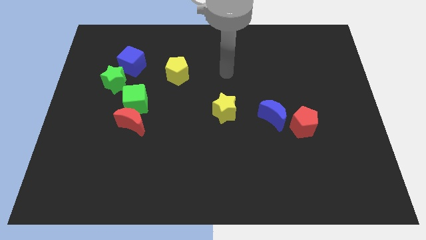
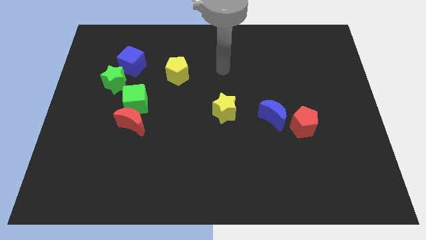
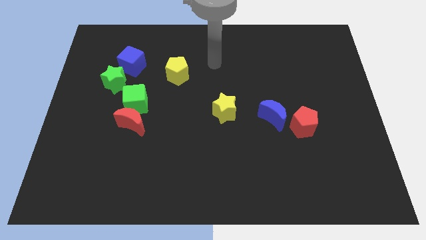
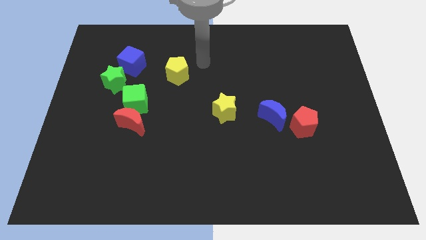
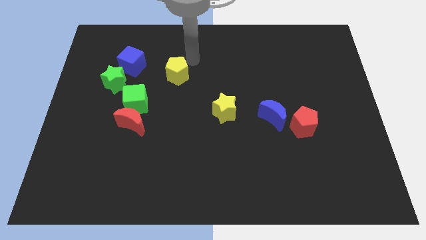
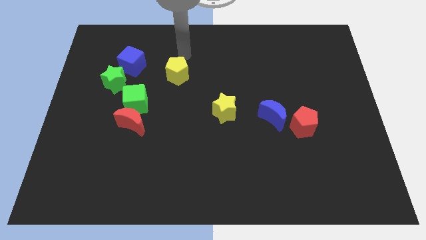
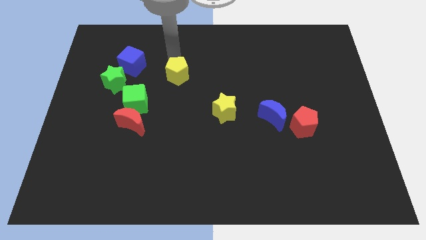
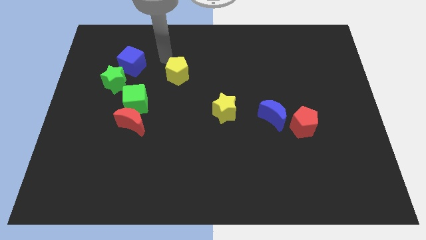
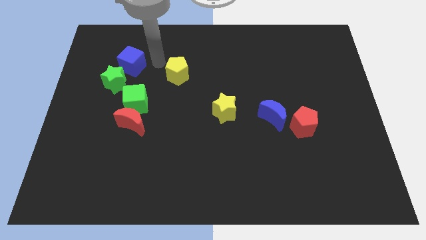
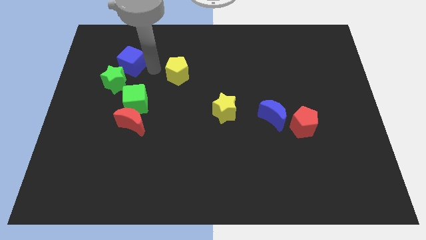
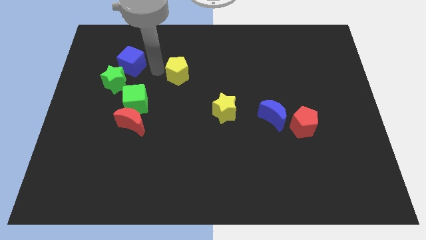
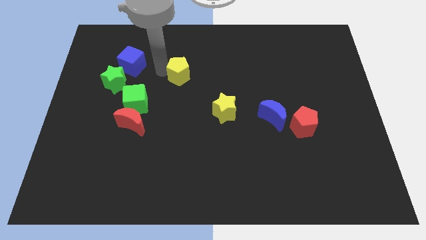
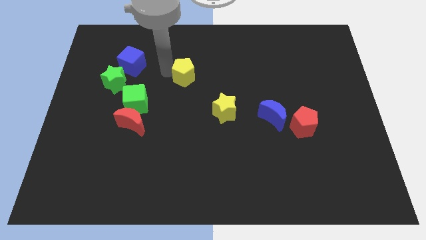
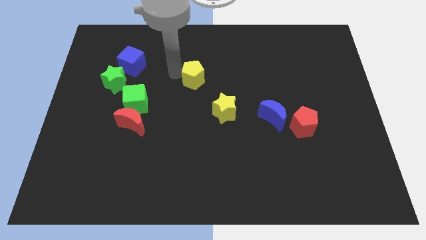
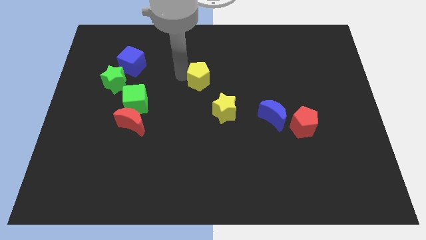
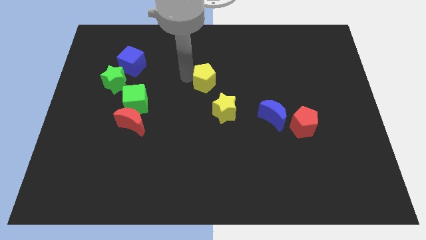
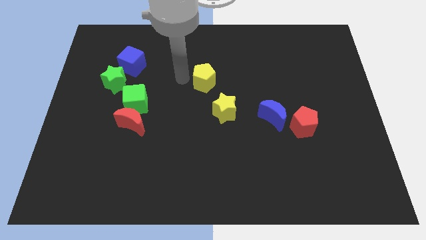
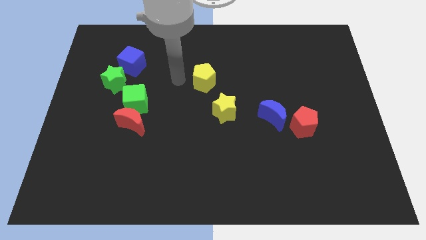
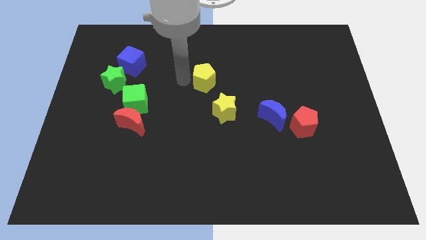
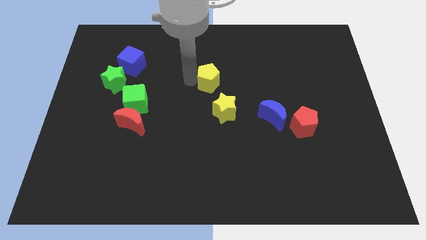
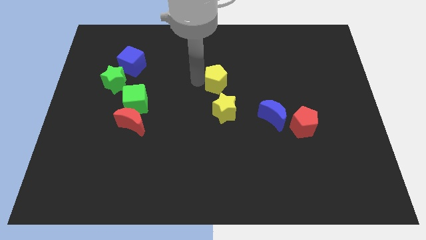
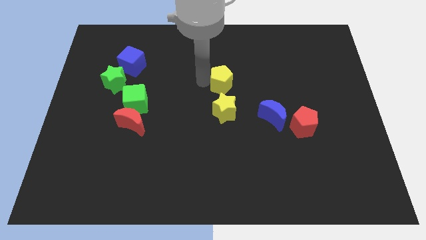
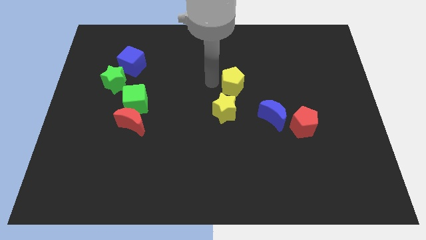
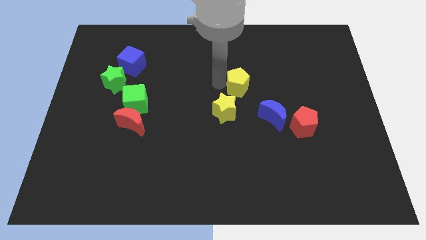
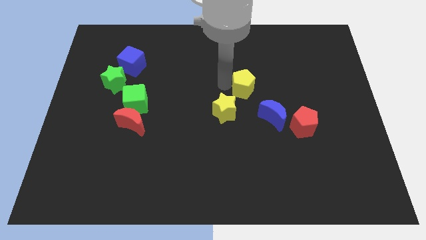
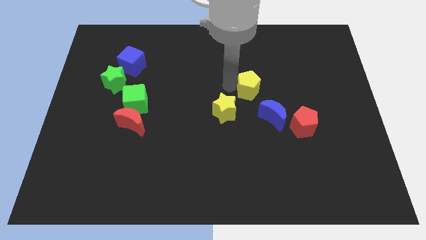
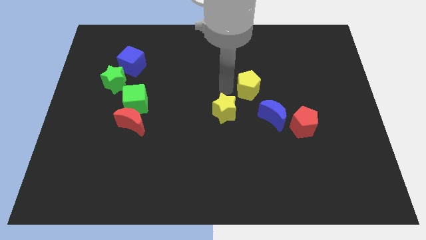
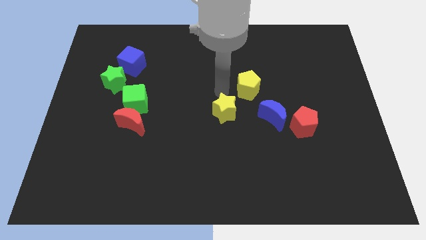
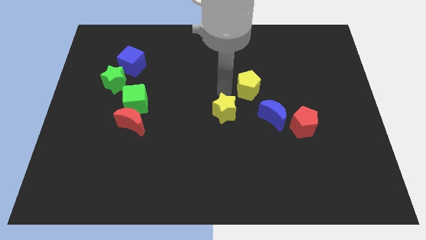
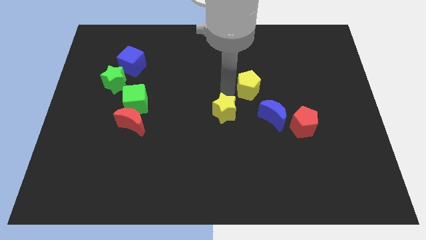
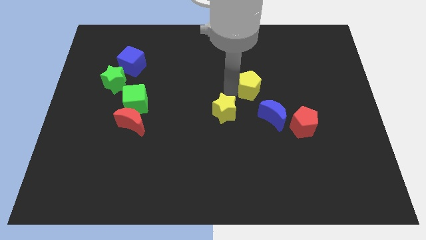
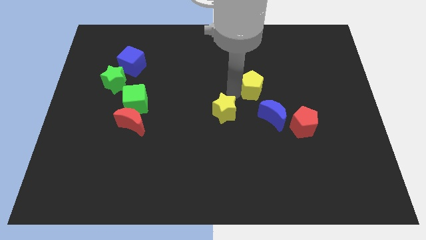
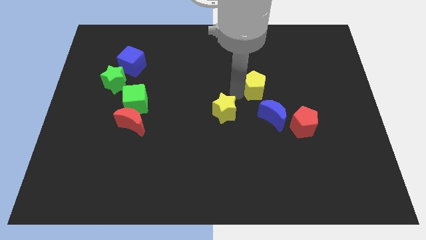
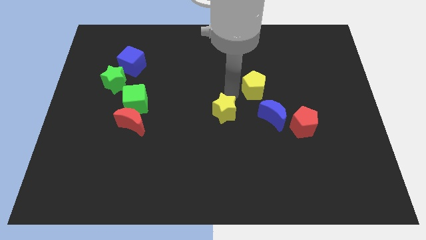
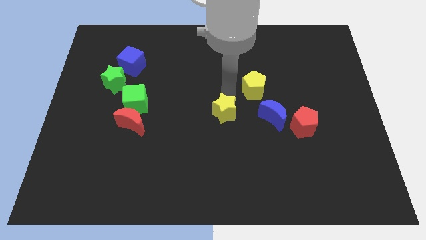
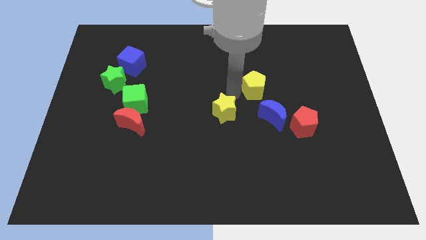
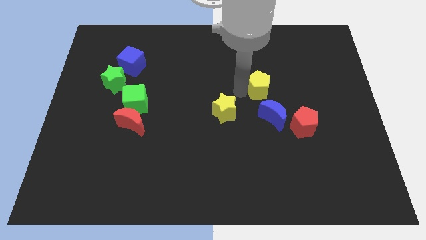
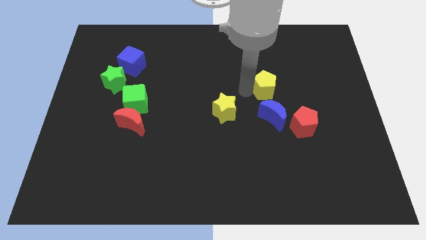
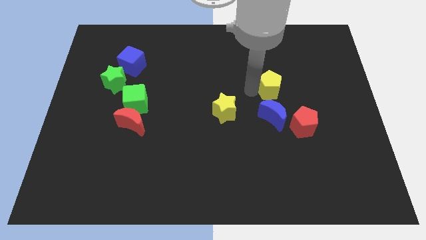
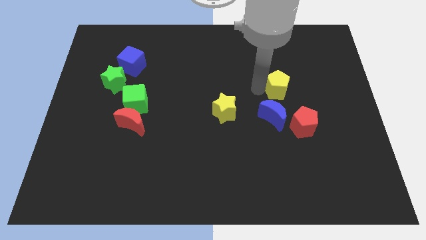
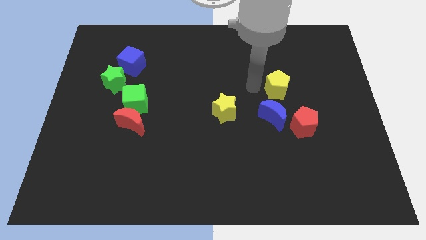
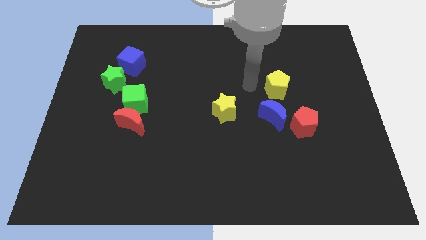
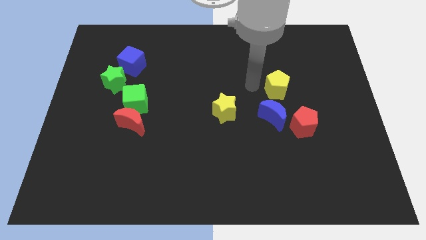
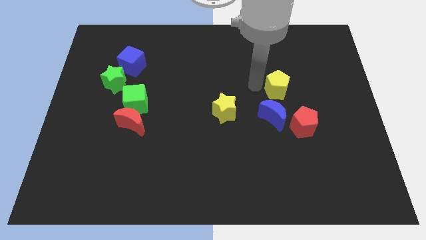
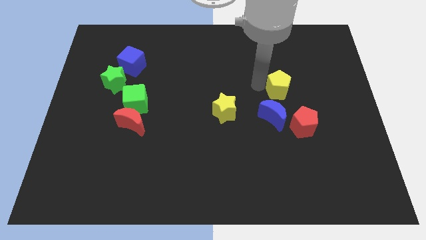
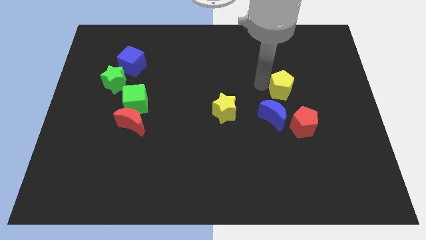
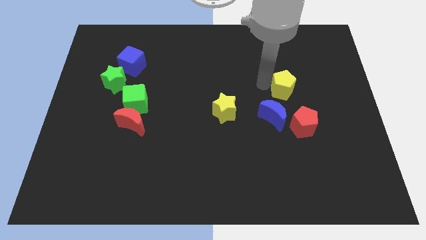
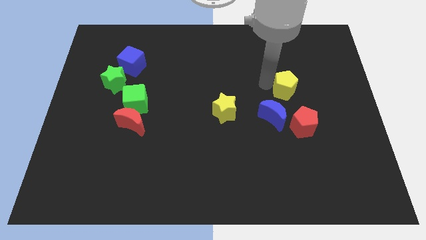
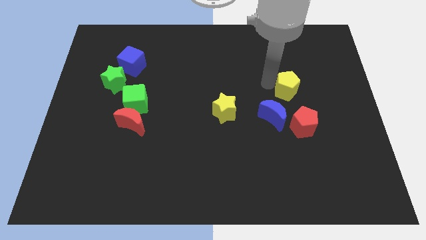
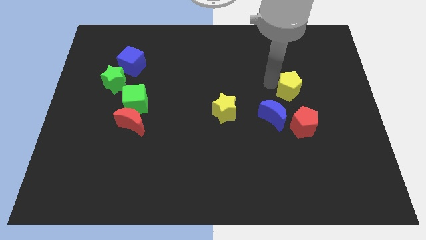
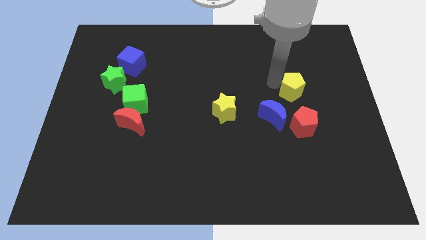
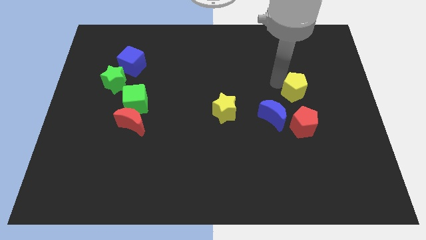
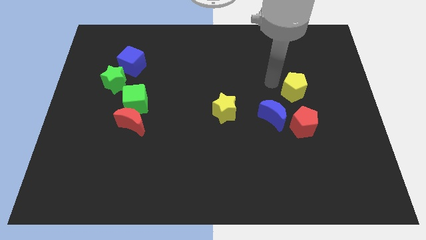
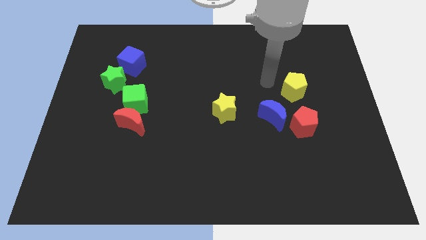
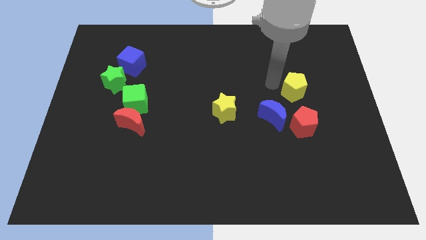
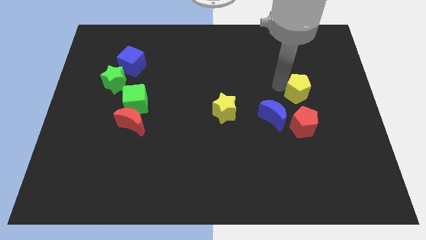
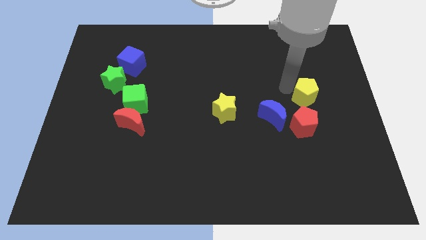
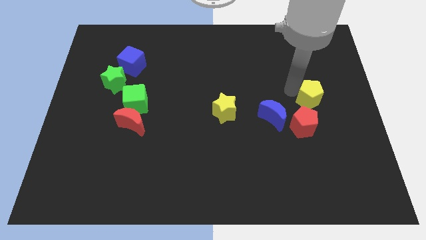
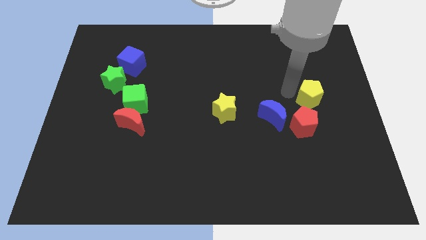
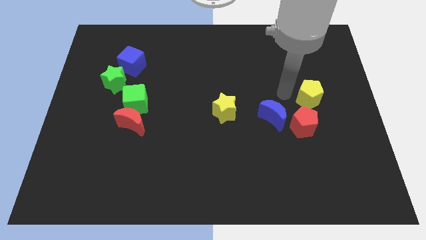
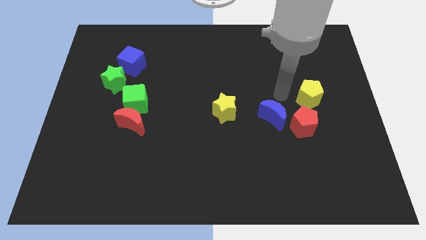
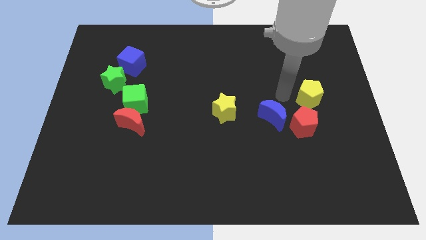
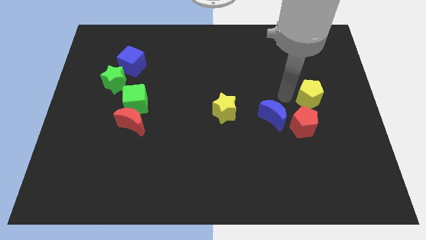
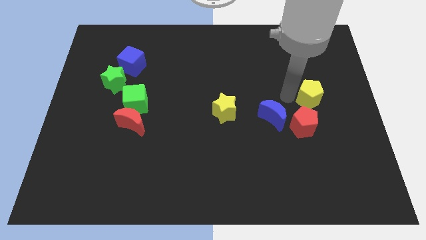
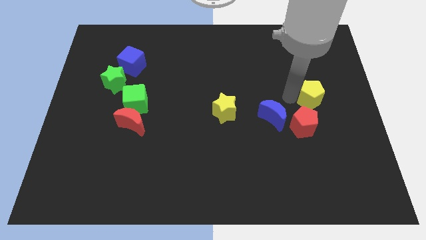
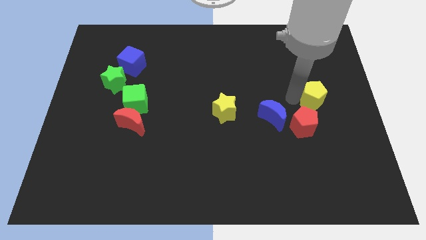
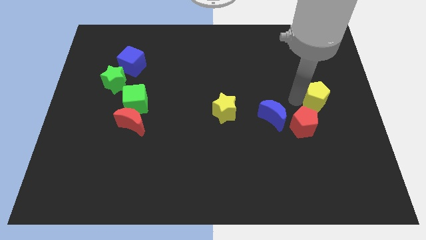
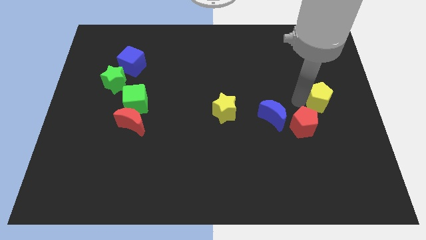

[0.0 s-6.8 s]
push the yellow pentagon to the right side
